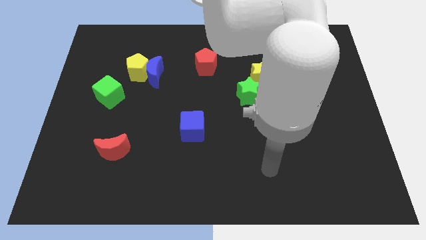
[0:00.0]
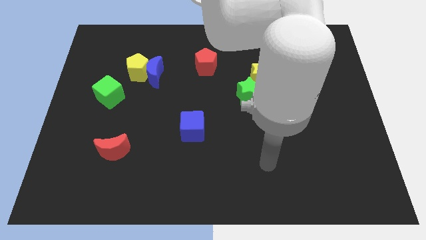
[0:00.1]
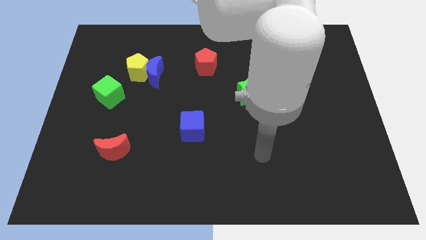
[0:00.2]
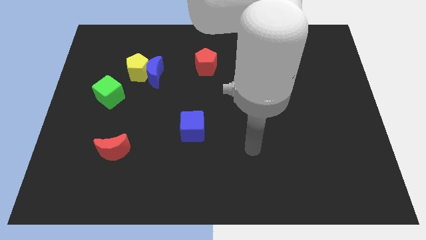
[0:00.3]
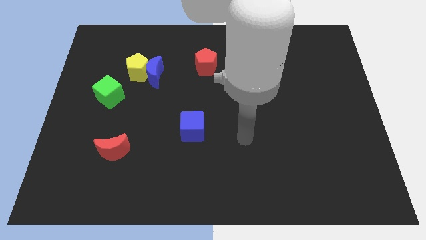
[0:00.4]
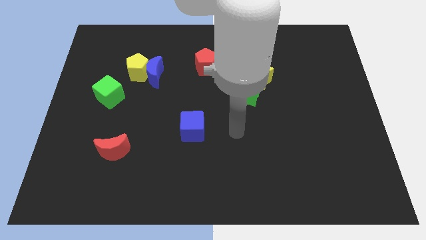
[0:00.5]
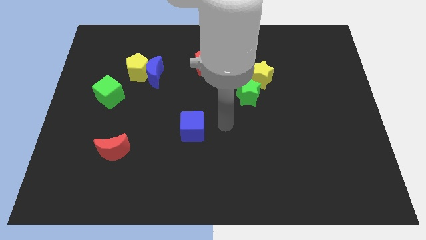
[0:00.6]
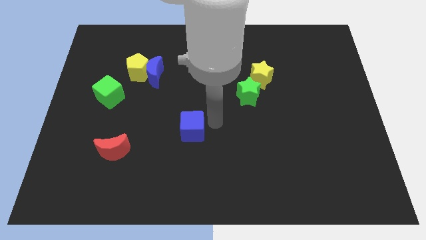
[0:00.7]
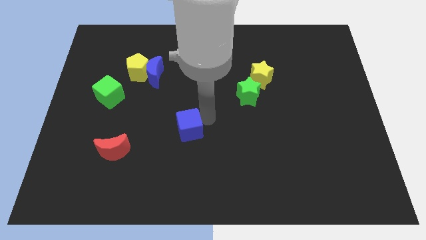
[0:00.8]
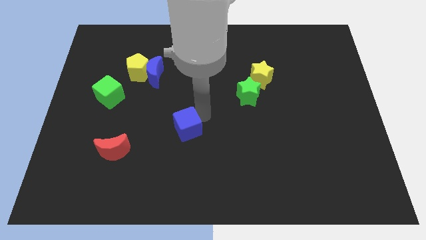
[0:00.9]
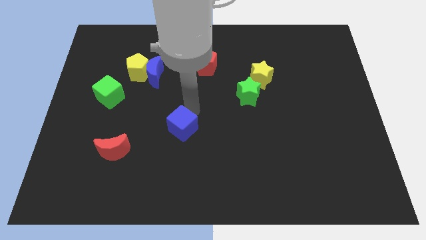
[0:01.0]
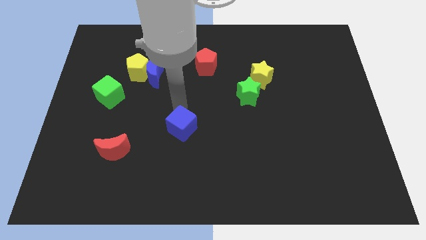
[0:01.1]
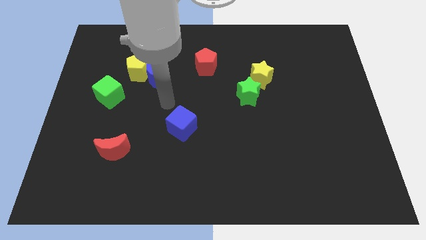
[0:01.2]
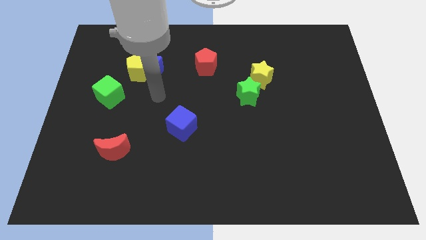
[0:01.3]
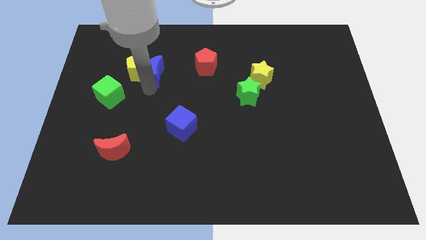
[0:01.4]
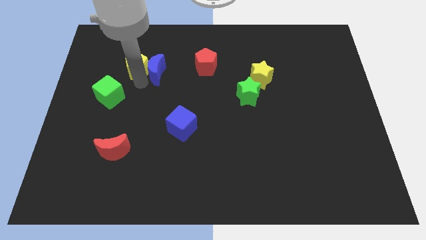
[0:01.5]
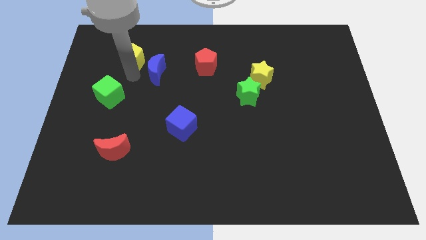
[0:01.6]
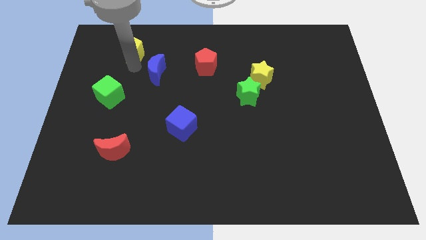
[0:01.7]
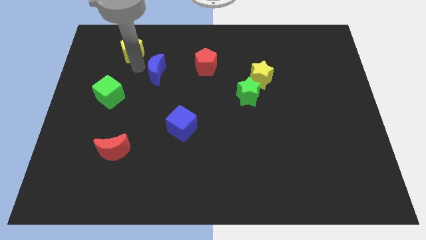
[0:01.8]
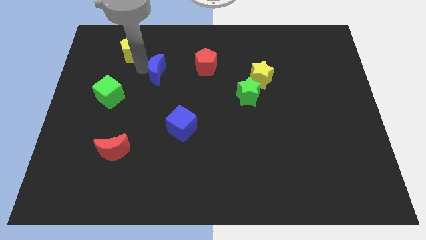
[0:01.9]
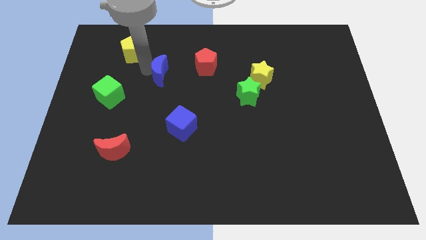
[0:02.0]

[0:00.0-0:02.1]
move the blue moon away from the yellow pentagon

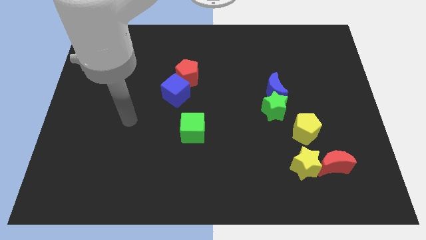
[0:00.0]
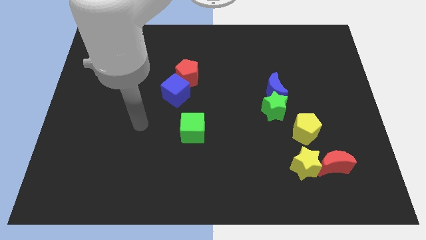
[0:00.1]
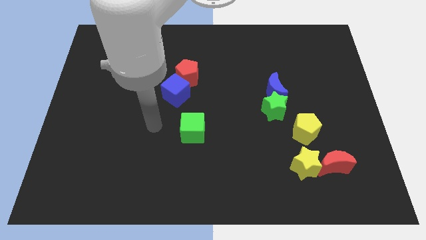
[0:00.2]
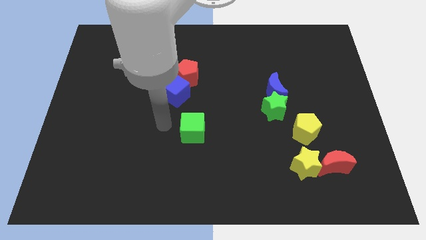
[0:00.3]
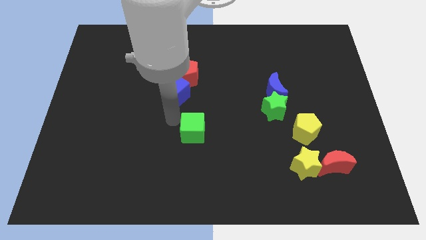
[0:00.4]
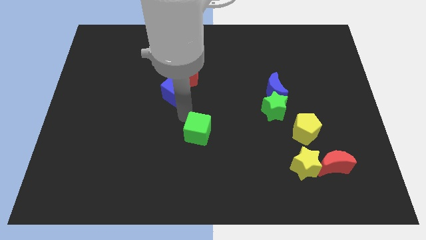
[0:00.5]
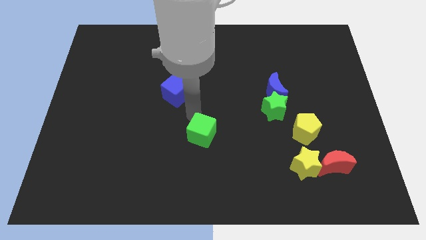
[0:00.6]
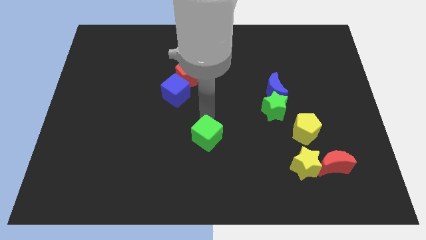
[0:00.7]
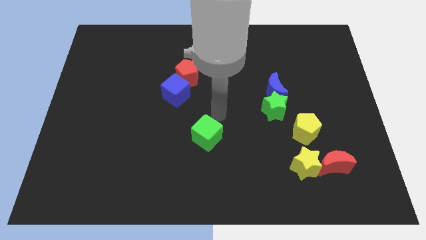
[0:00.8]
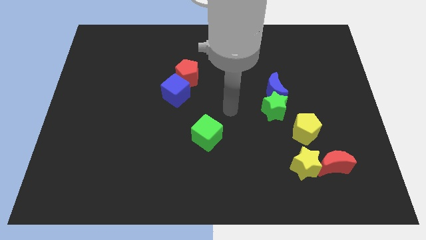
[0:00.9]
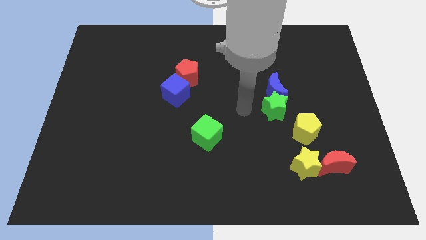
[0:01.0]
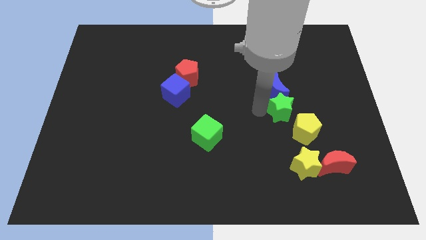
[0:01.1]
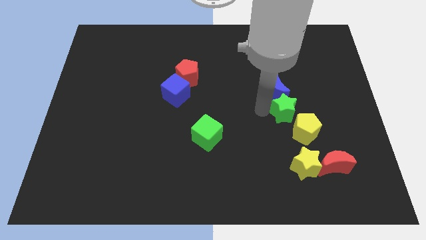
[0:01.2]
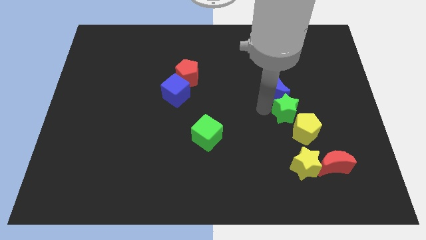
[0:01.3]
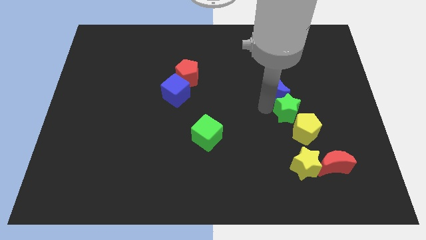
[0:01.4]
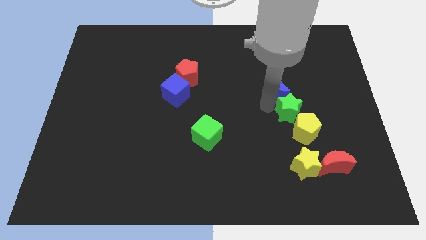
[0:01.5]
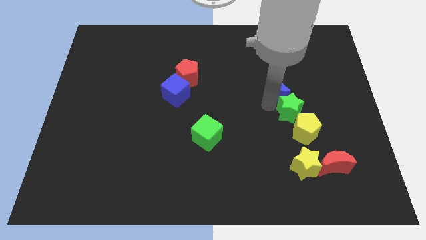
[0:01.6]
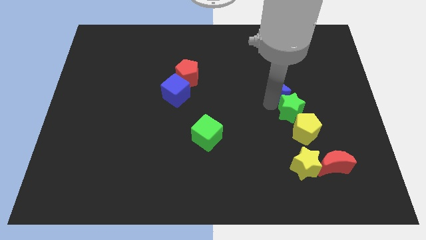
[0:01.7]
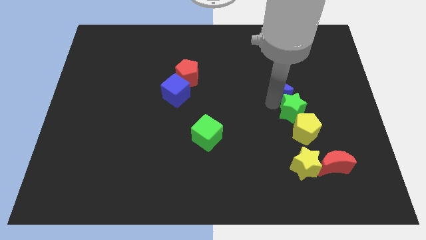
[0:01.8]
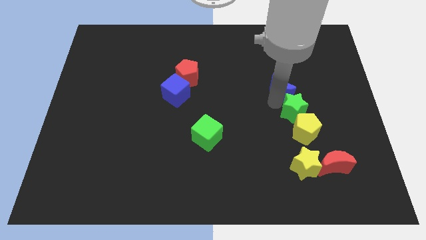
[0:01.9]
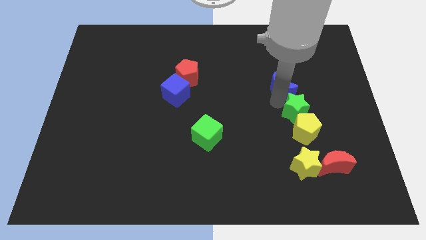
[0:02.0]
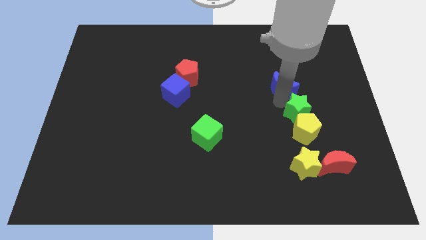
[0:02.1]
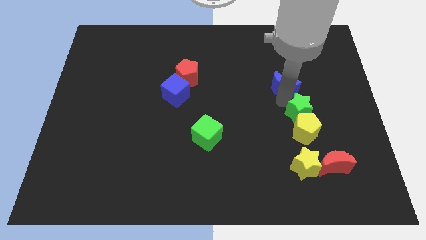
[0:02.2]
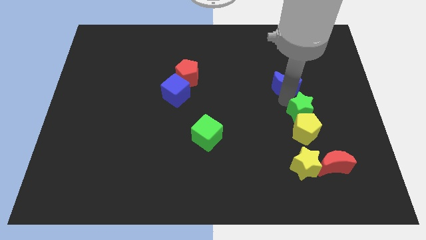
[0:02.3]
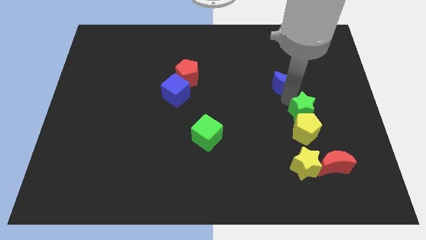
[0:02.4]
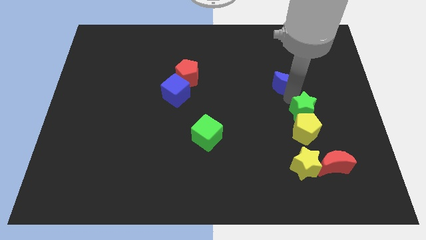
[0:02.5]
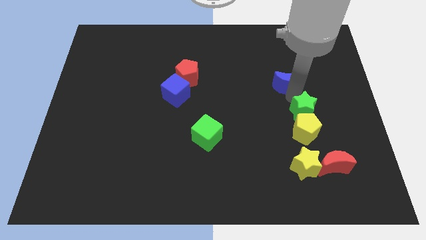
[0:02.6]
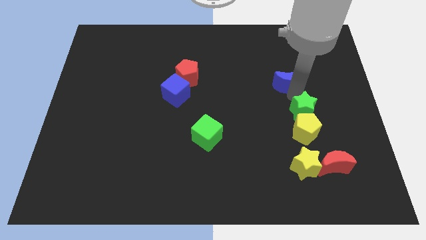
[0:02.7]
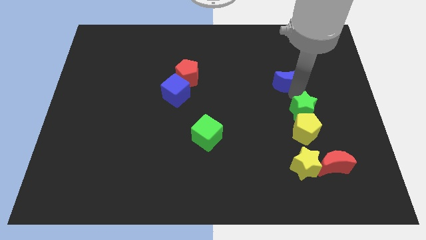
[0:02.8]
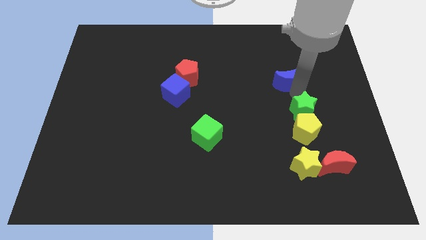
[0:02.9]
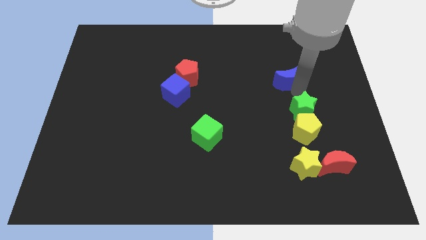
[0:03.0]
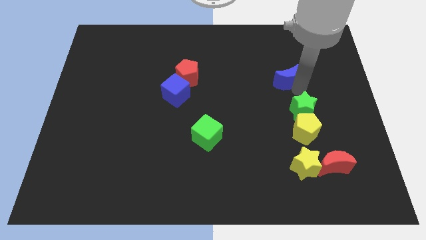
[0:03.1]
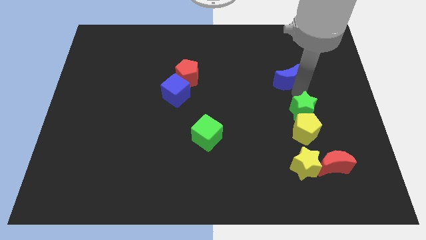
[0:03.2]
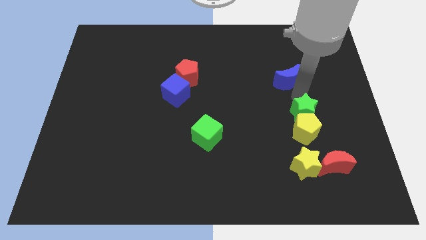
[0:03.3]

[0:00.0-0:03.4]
separate the blue moon from the green star

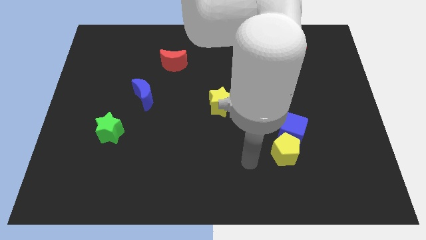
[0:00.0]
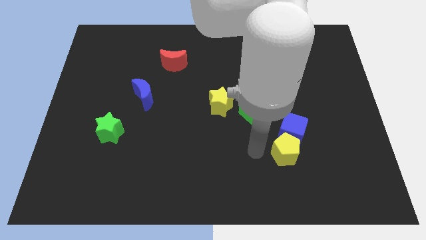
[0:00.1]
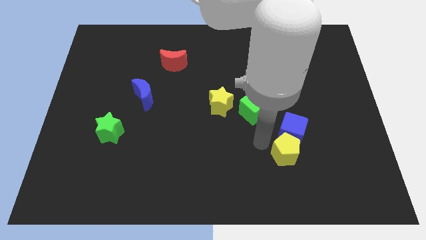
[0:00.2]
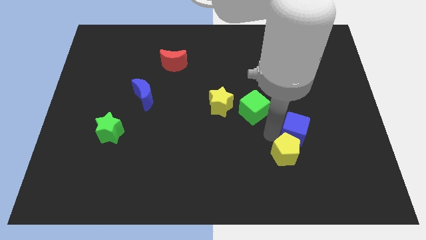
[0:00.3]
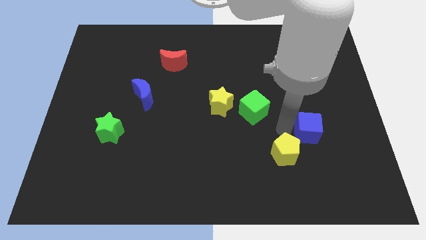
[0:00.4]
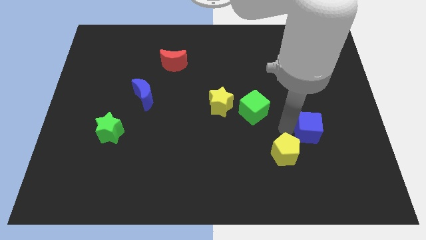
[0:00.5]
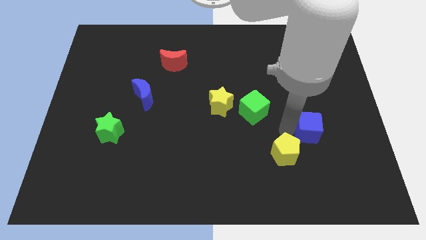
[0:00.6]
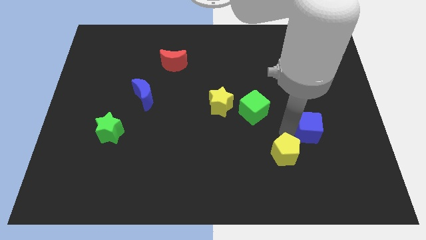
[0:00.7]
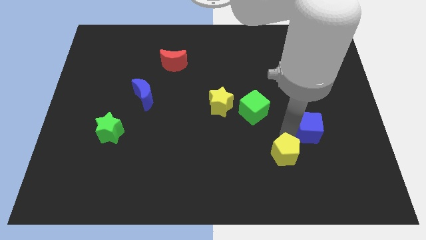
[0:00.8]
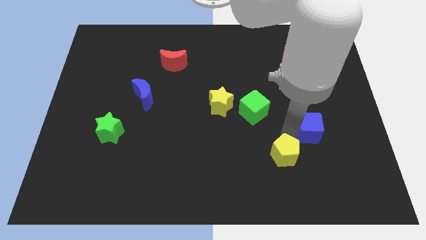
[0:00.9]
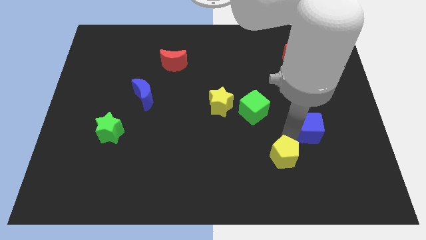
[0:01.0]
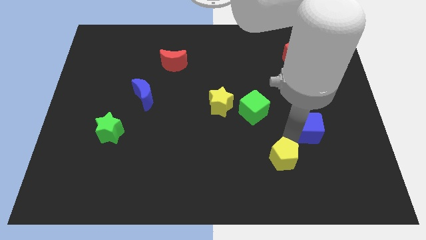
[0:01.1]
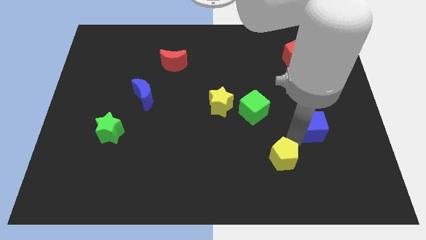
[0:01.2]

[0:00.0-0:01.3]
move the yellow pentagon away from the blue cube

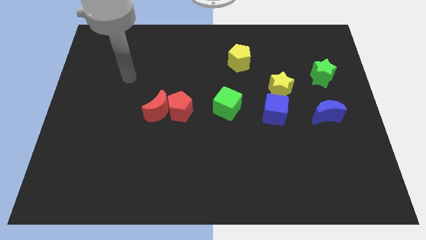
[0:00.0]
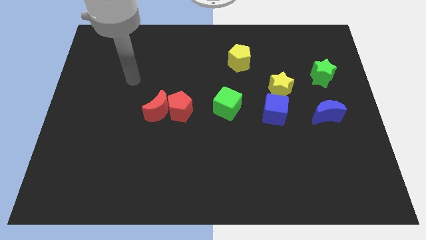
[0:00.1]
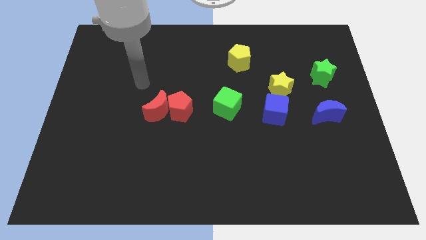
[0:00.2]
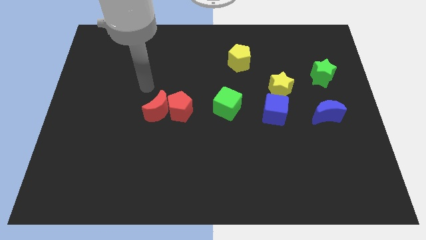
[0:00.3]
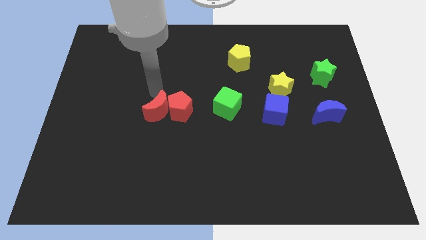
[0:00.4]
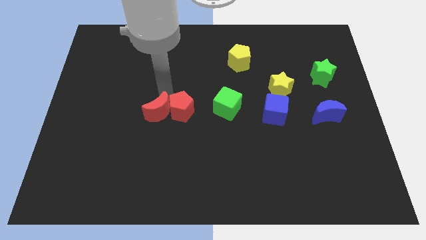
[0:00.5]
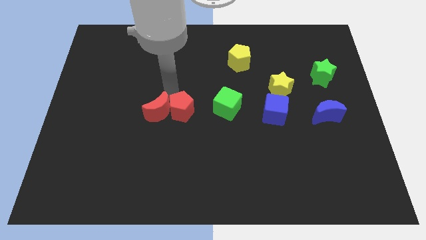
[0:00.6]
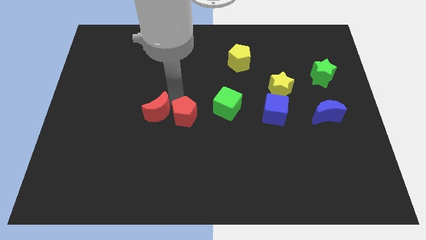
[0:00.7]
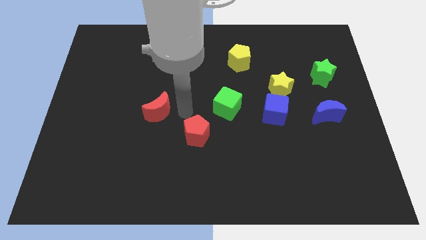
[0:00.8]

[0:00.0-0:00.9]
pull the red moon apart from the red pentagon

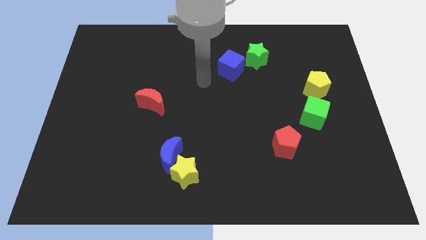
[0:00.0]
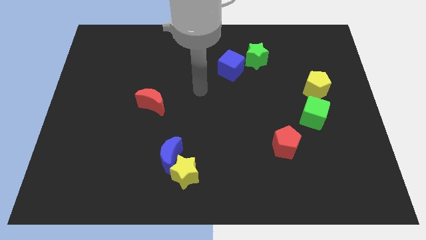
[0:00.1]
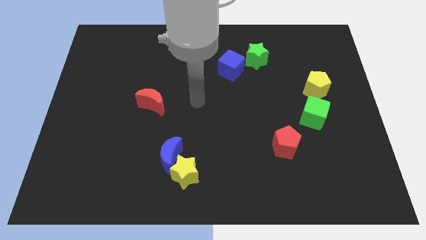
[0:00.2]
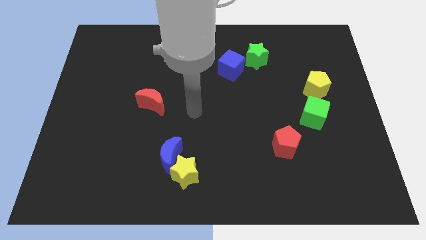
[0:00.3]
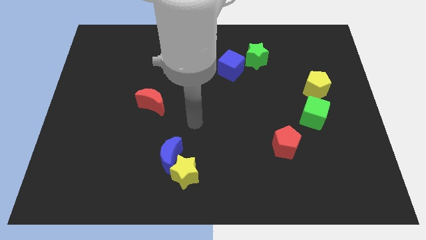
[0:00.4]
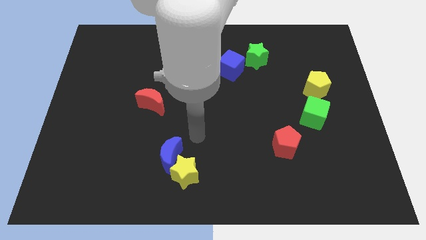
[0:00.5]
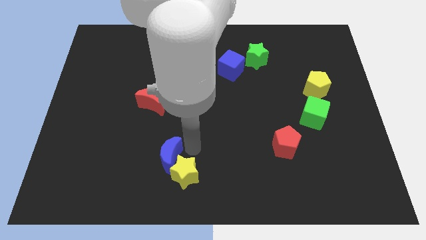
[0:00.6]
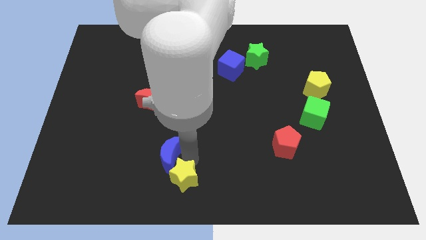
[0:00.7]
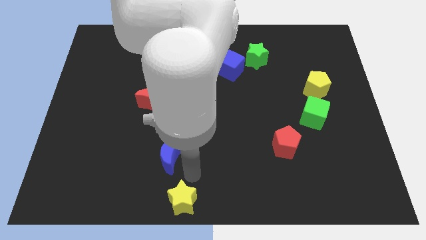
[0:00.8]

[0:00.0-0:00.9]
separate the blue moon from the yellow star

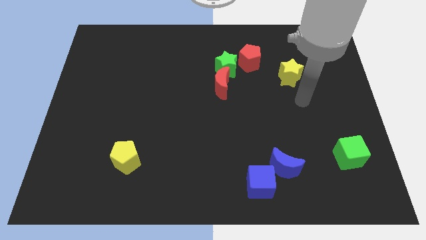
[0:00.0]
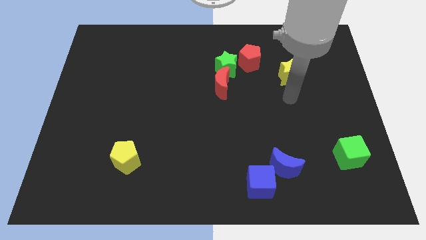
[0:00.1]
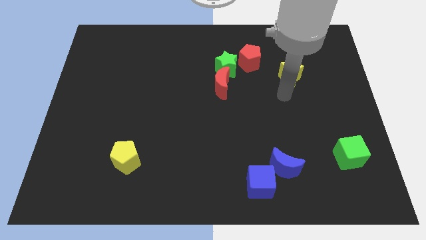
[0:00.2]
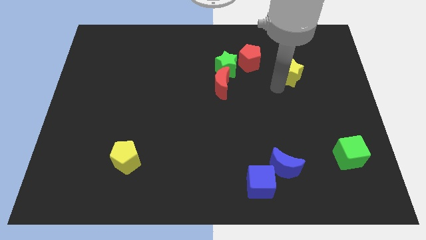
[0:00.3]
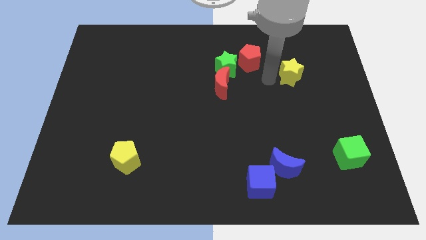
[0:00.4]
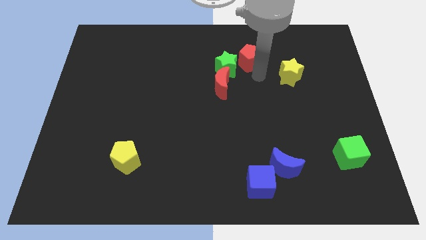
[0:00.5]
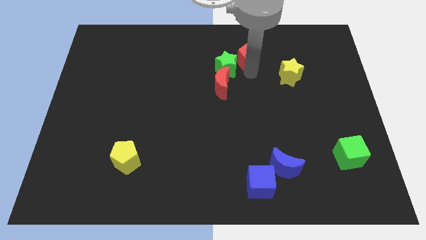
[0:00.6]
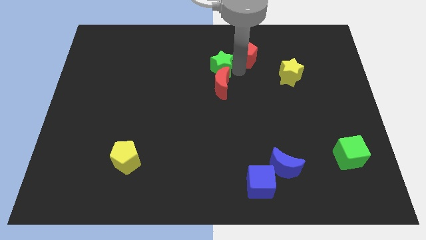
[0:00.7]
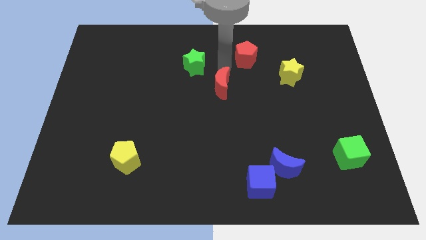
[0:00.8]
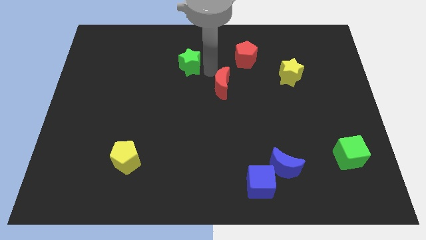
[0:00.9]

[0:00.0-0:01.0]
pull the red moon apart from the green star
